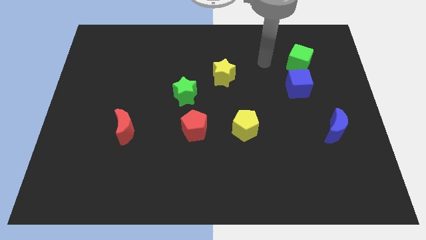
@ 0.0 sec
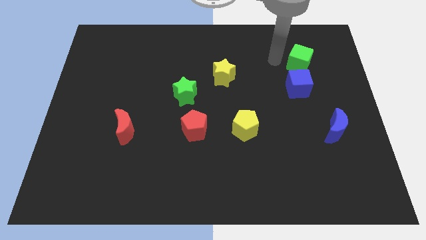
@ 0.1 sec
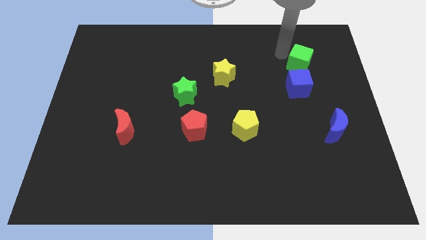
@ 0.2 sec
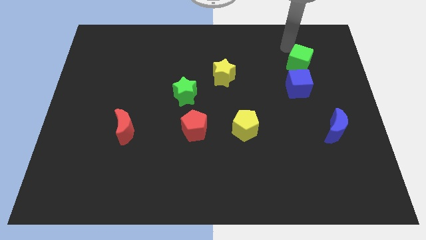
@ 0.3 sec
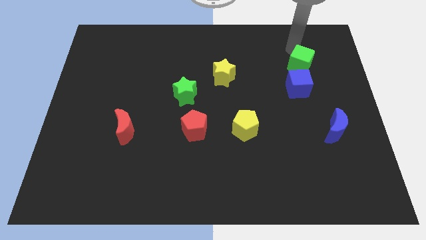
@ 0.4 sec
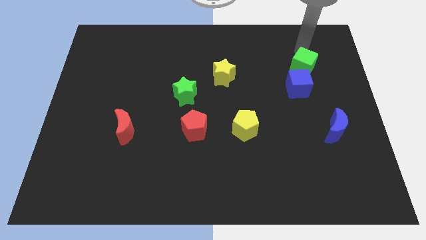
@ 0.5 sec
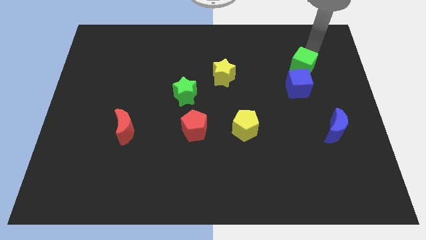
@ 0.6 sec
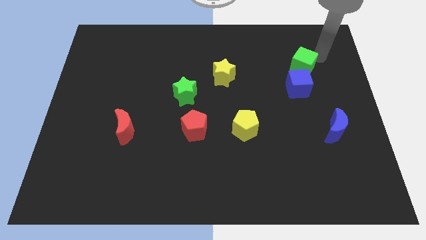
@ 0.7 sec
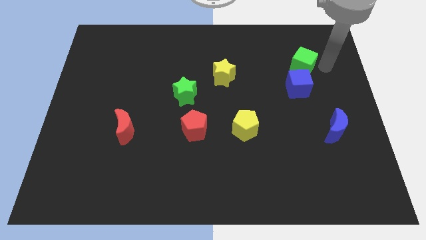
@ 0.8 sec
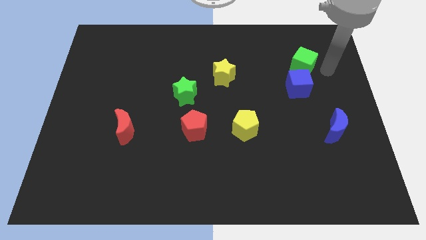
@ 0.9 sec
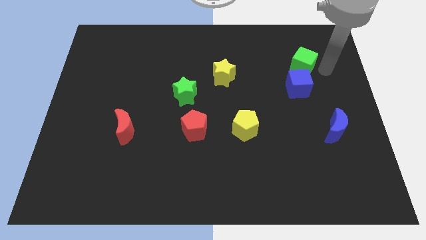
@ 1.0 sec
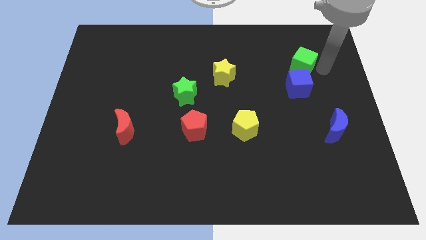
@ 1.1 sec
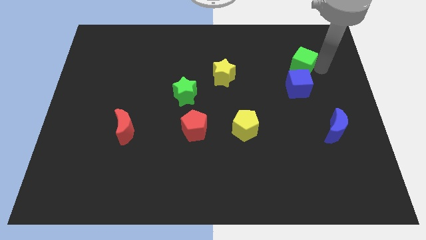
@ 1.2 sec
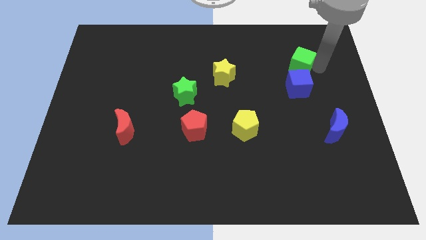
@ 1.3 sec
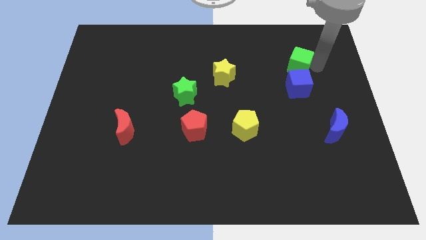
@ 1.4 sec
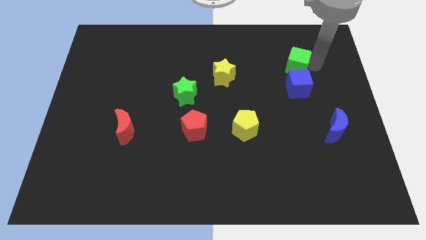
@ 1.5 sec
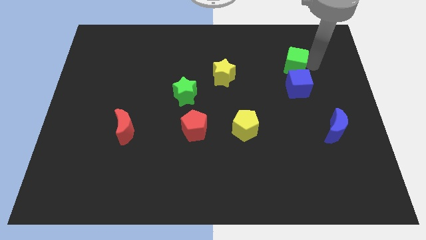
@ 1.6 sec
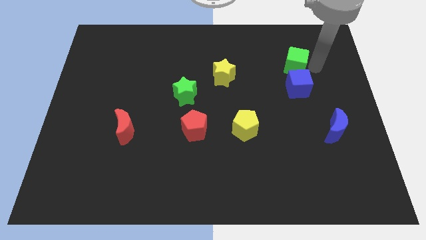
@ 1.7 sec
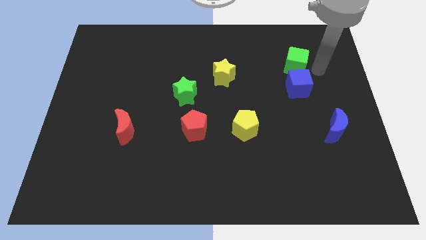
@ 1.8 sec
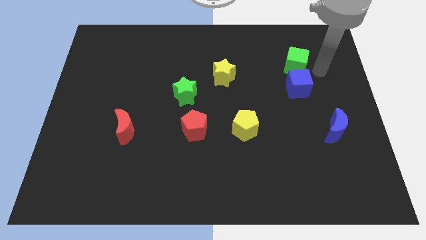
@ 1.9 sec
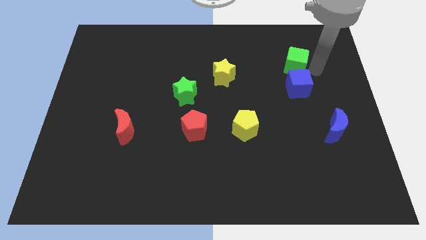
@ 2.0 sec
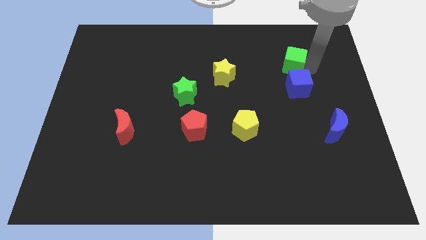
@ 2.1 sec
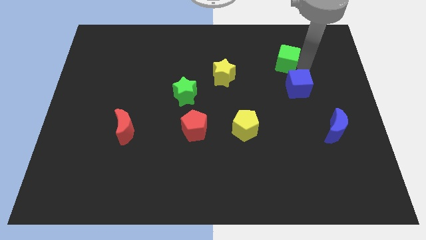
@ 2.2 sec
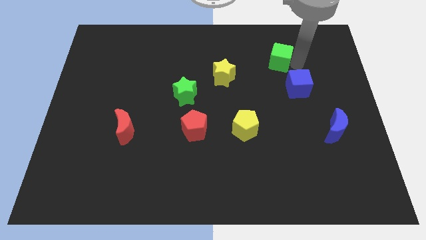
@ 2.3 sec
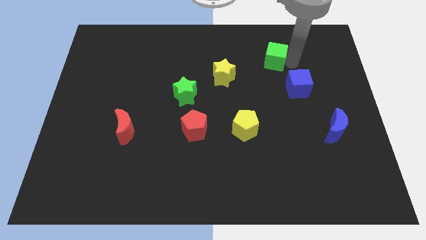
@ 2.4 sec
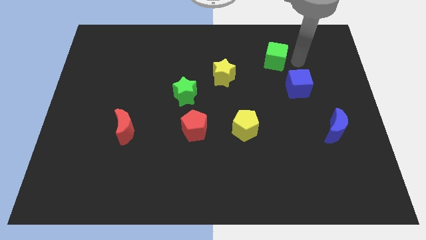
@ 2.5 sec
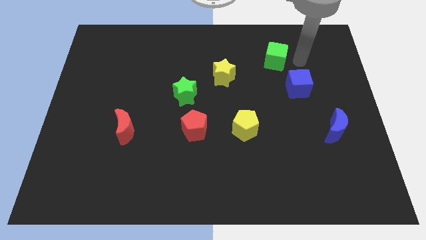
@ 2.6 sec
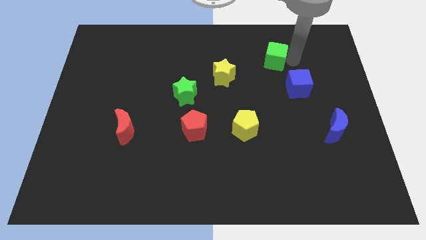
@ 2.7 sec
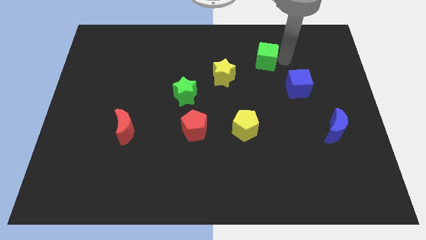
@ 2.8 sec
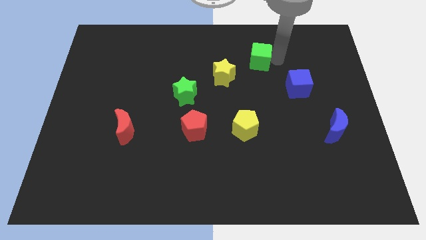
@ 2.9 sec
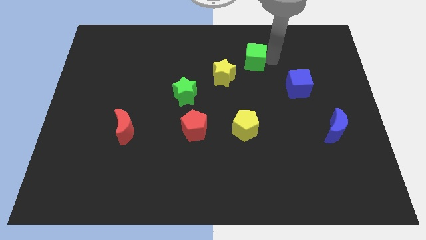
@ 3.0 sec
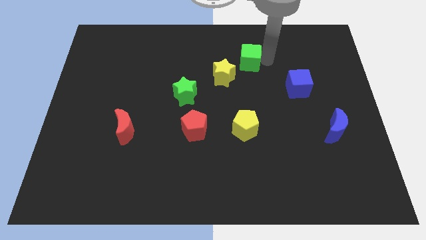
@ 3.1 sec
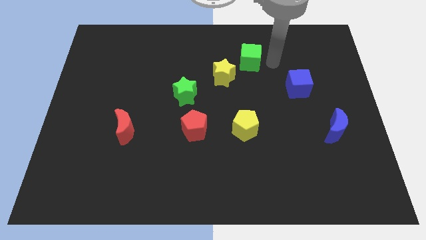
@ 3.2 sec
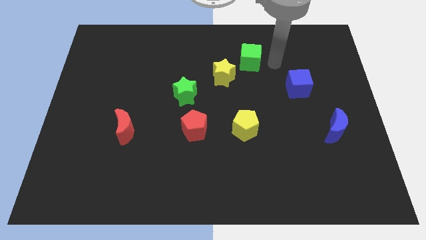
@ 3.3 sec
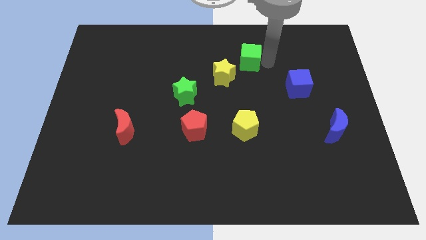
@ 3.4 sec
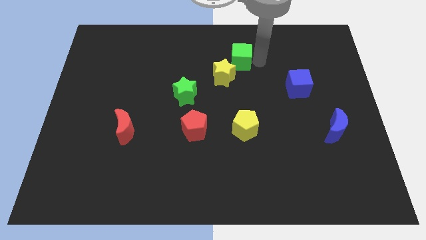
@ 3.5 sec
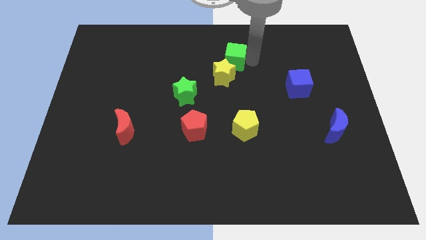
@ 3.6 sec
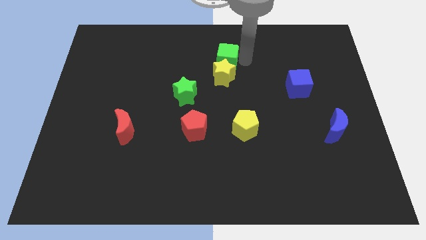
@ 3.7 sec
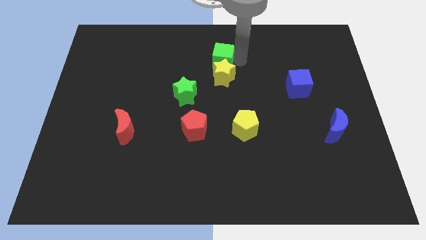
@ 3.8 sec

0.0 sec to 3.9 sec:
slide the green cube to the left

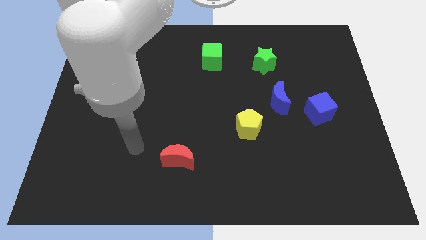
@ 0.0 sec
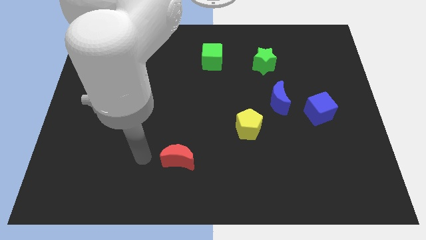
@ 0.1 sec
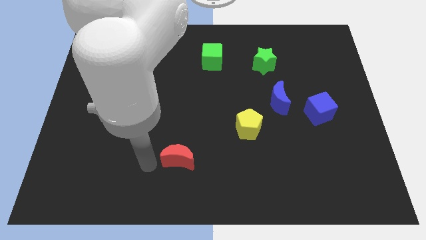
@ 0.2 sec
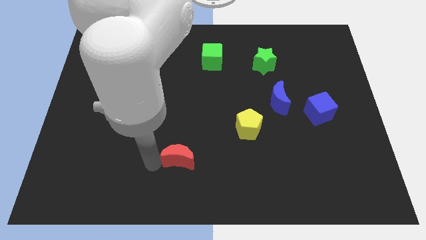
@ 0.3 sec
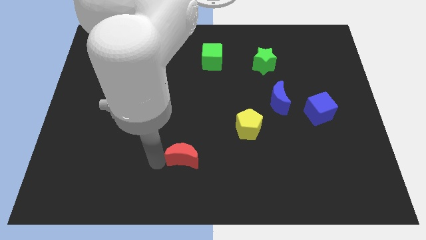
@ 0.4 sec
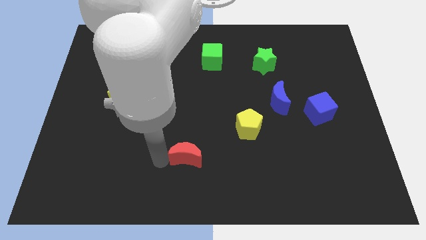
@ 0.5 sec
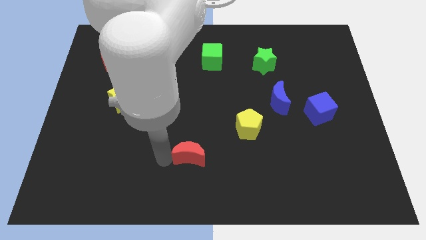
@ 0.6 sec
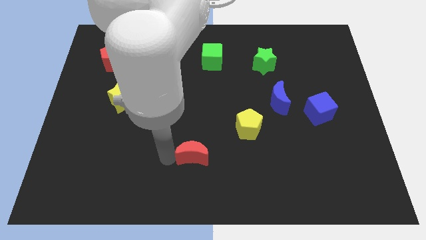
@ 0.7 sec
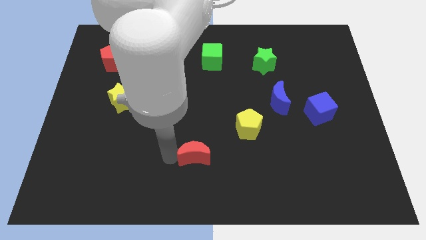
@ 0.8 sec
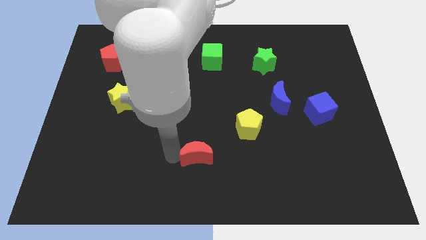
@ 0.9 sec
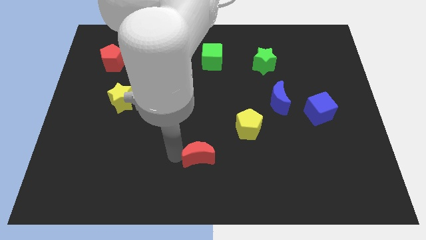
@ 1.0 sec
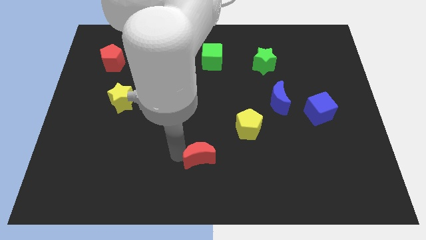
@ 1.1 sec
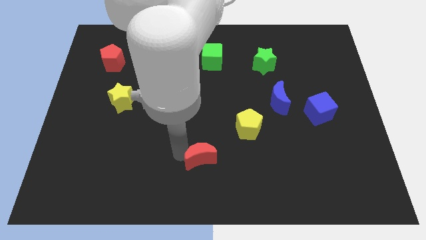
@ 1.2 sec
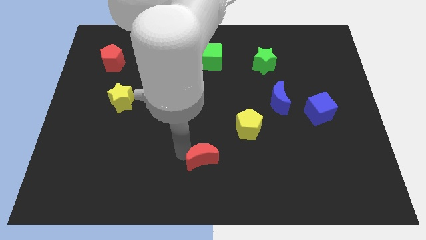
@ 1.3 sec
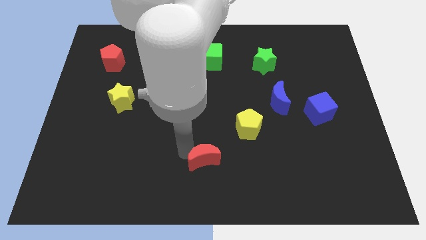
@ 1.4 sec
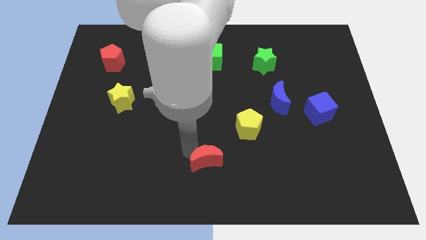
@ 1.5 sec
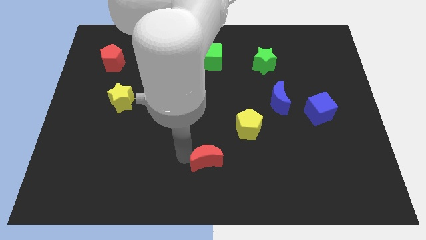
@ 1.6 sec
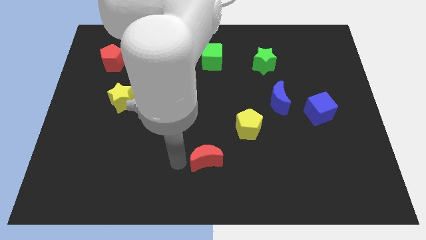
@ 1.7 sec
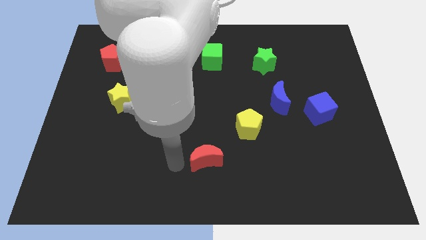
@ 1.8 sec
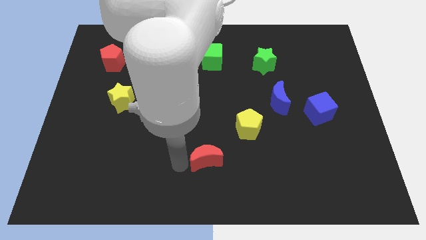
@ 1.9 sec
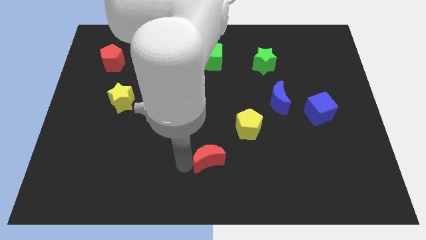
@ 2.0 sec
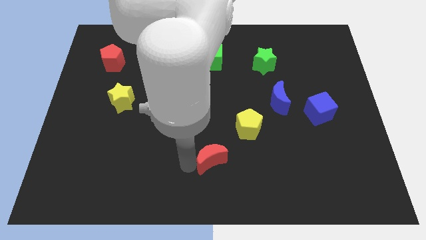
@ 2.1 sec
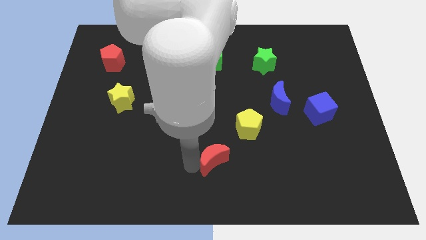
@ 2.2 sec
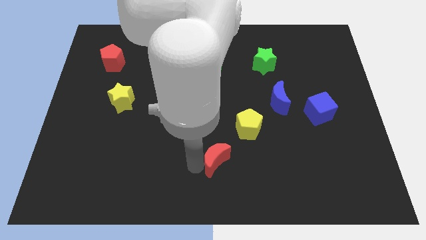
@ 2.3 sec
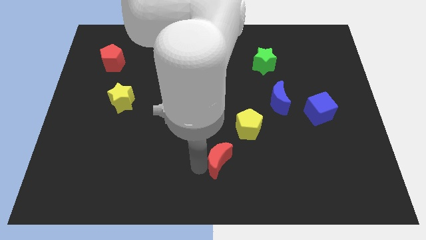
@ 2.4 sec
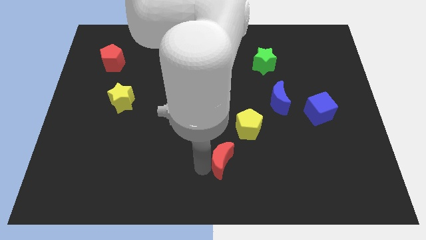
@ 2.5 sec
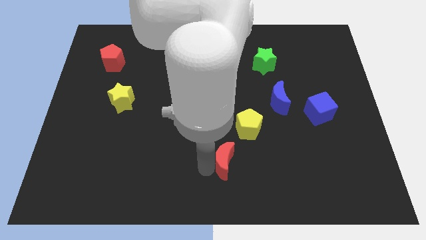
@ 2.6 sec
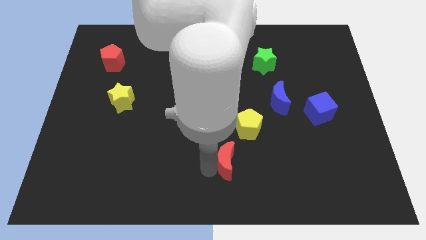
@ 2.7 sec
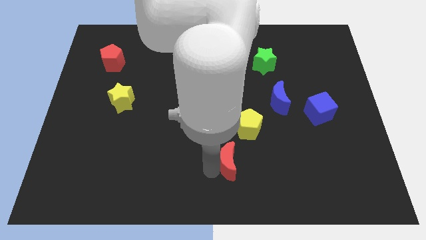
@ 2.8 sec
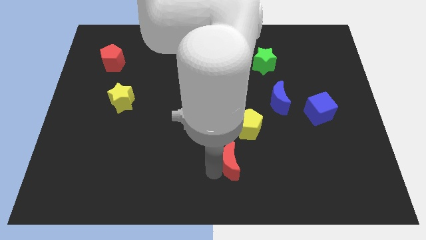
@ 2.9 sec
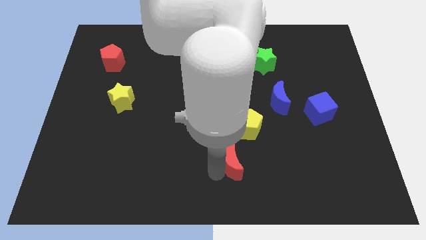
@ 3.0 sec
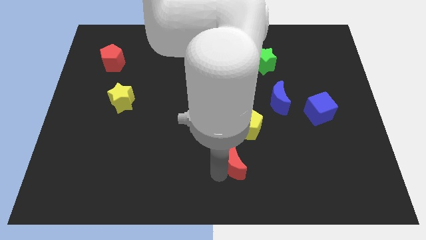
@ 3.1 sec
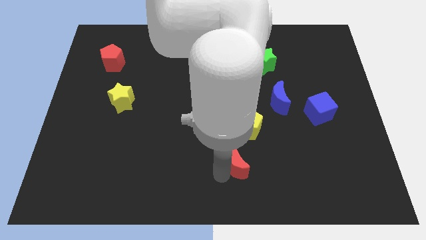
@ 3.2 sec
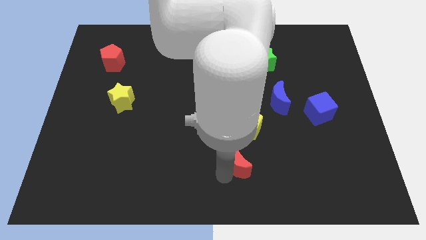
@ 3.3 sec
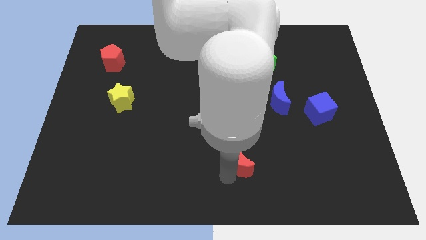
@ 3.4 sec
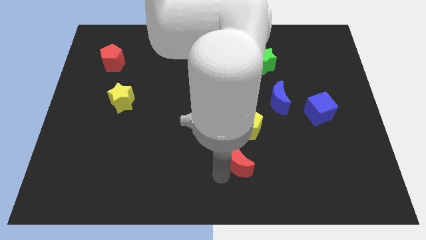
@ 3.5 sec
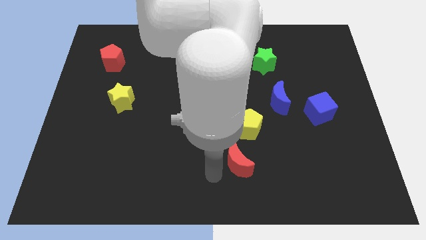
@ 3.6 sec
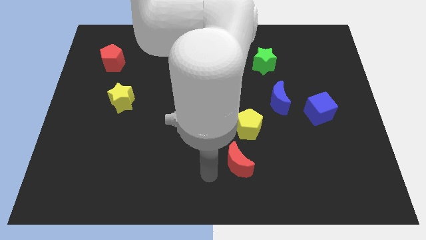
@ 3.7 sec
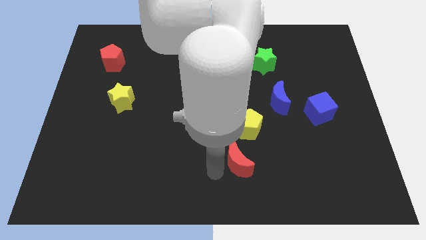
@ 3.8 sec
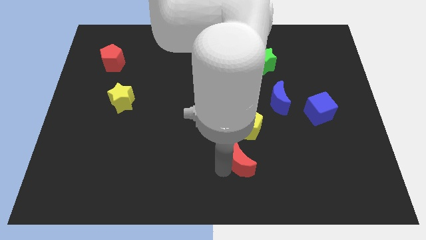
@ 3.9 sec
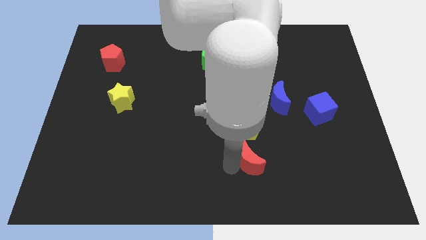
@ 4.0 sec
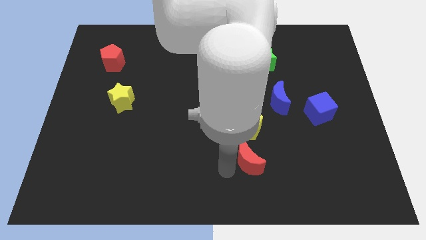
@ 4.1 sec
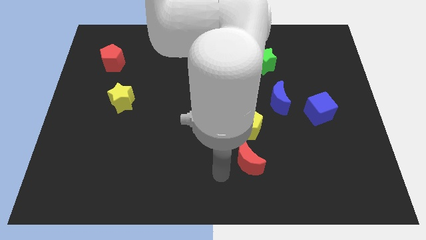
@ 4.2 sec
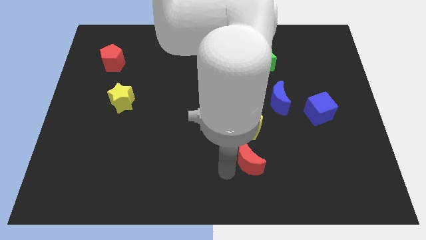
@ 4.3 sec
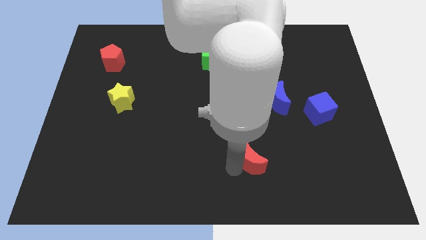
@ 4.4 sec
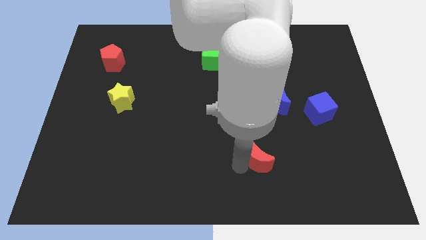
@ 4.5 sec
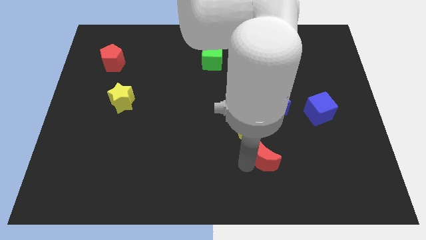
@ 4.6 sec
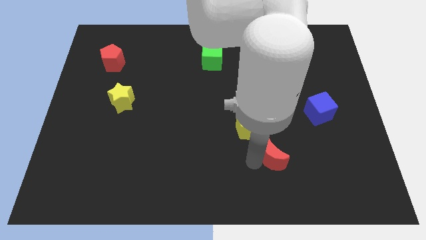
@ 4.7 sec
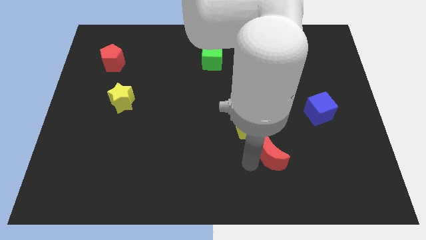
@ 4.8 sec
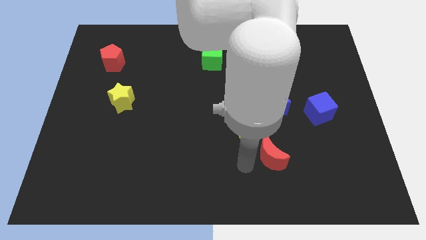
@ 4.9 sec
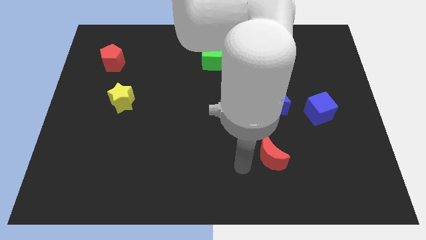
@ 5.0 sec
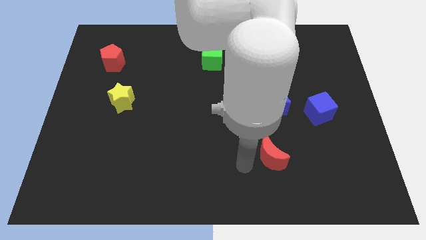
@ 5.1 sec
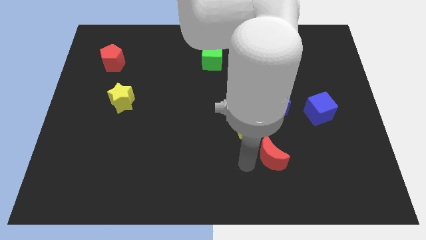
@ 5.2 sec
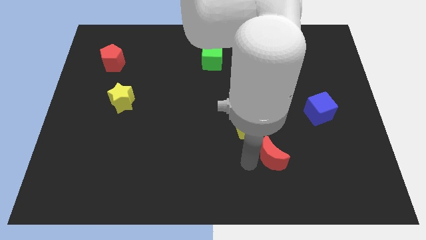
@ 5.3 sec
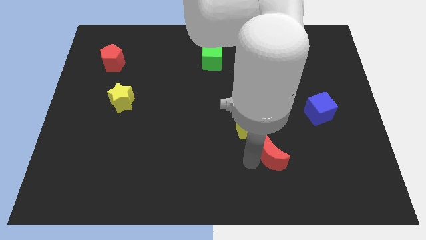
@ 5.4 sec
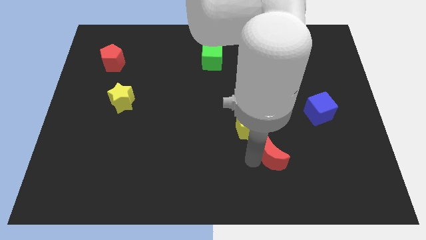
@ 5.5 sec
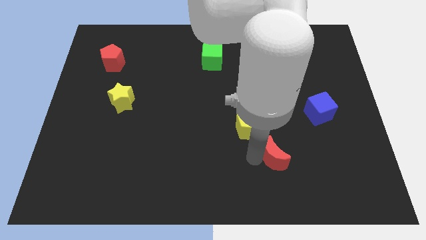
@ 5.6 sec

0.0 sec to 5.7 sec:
move the red moon to the right
